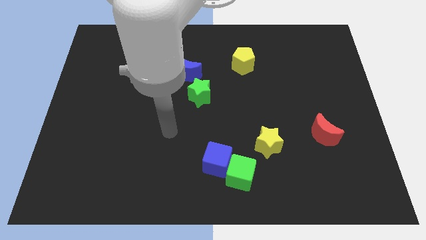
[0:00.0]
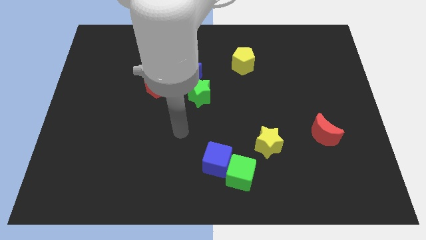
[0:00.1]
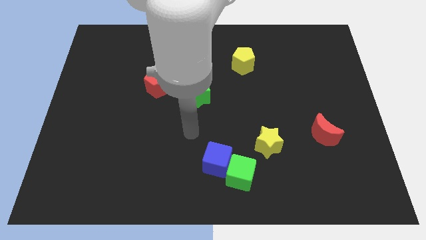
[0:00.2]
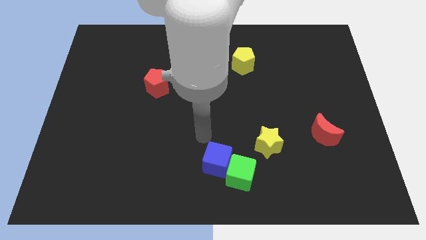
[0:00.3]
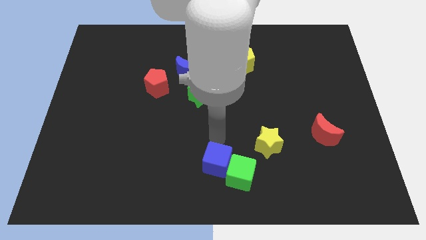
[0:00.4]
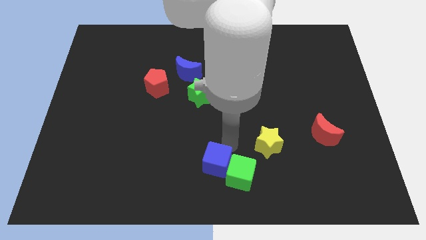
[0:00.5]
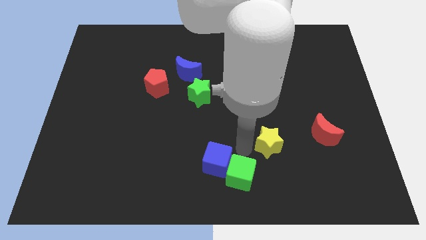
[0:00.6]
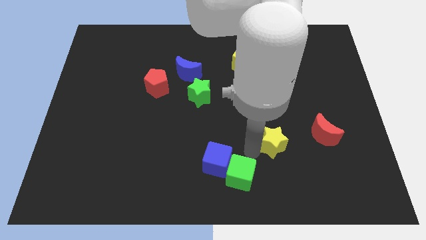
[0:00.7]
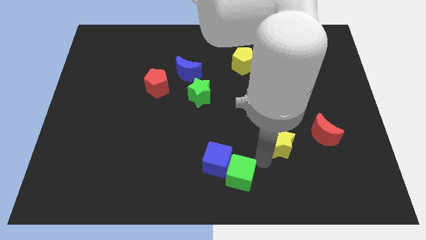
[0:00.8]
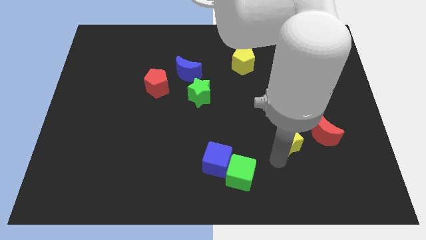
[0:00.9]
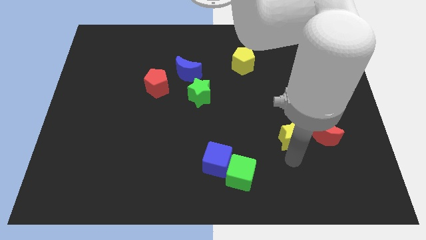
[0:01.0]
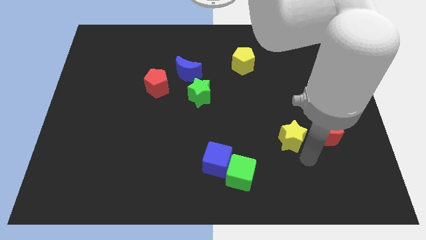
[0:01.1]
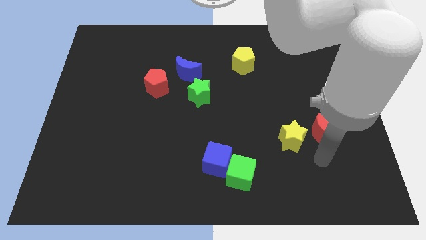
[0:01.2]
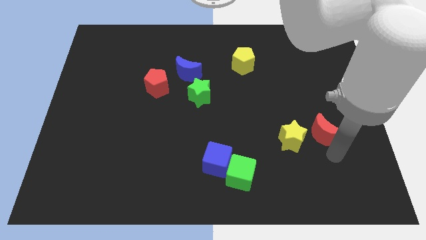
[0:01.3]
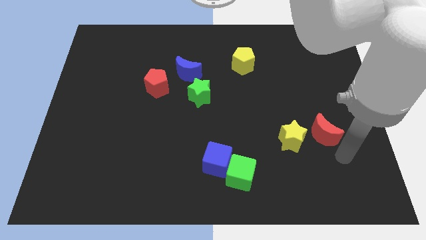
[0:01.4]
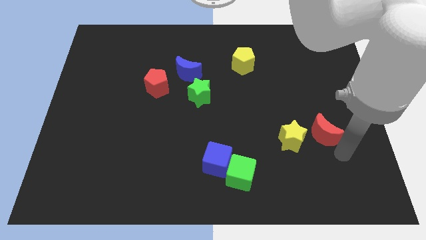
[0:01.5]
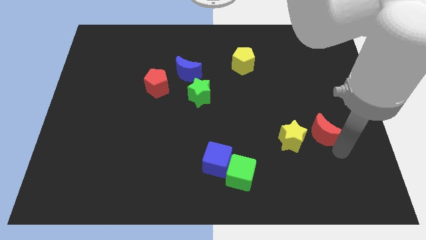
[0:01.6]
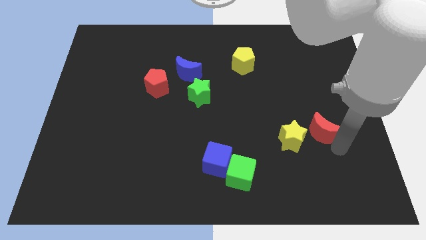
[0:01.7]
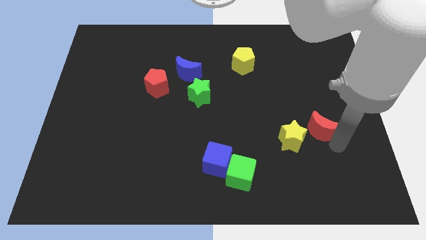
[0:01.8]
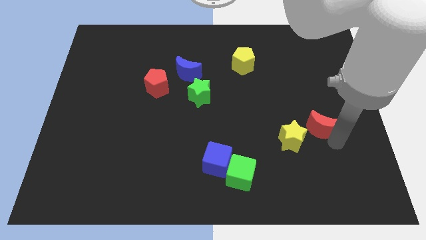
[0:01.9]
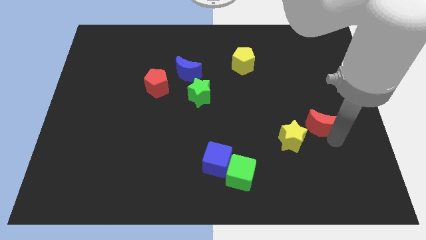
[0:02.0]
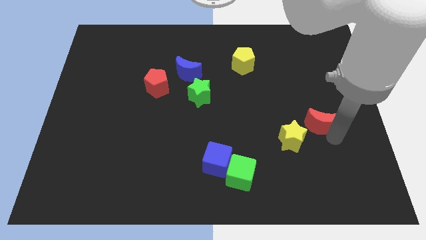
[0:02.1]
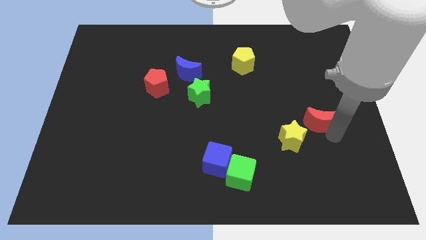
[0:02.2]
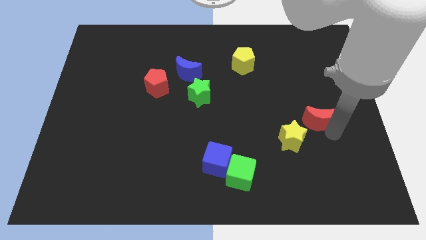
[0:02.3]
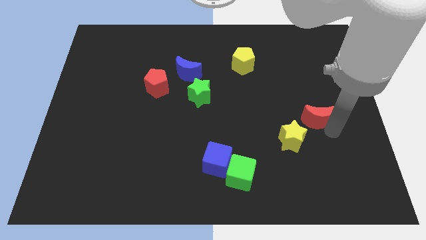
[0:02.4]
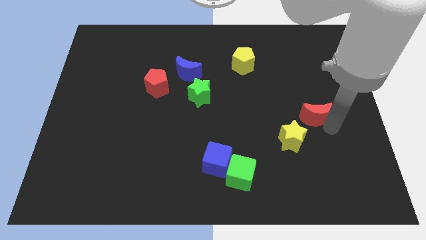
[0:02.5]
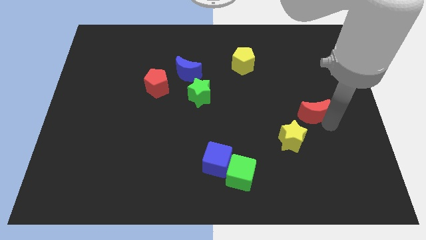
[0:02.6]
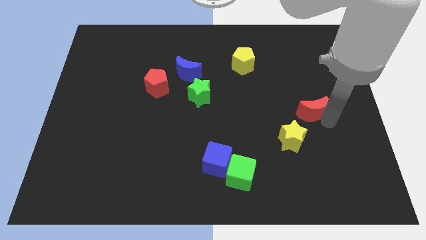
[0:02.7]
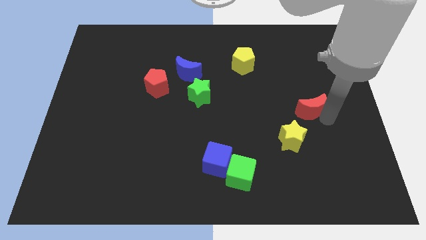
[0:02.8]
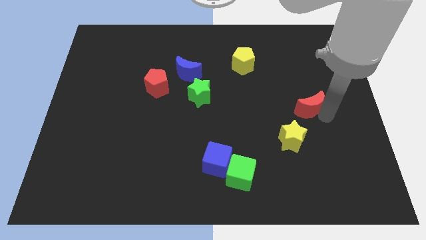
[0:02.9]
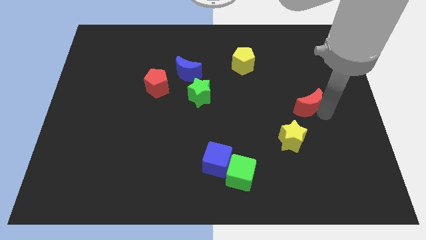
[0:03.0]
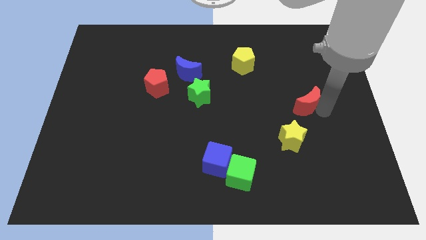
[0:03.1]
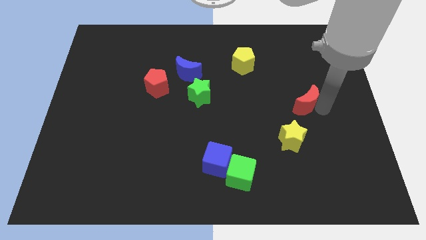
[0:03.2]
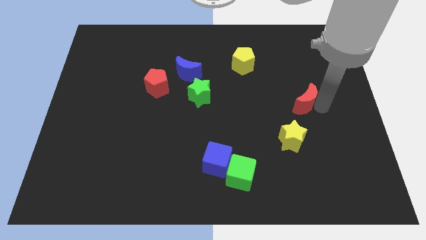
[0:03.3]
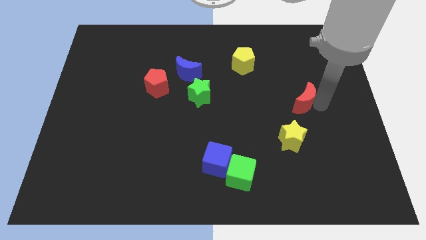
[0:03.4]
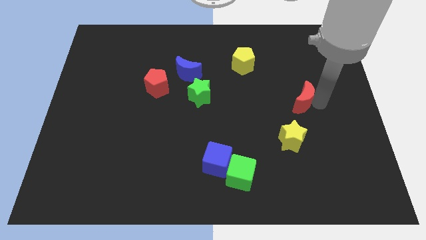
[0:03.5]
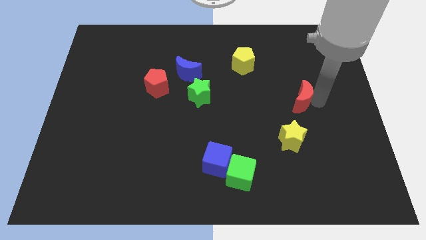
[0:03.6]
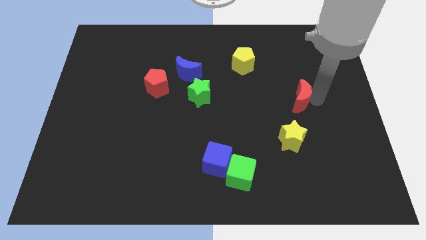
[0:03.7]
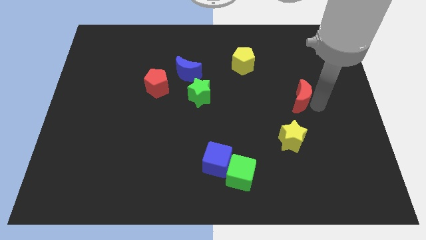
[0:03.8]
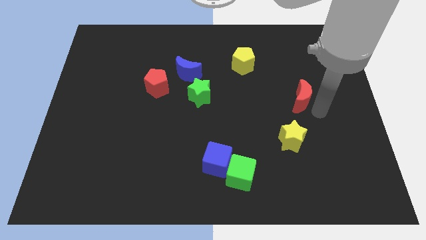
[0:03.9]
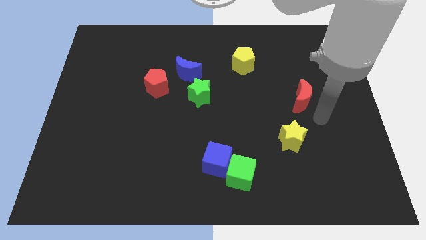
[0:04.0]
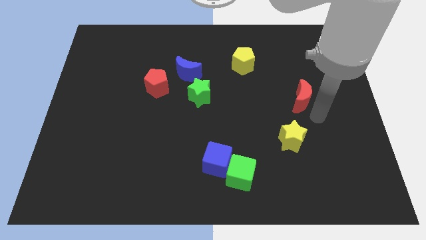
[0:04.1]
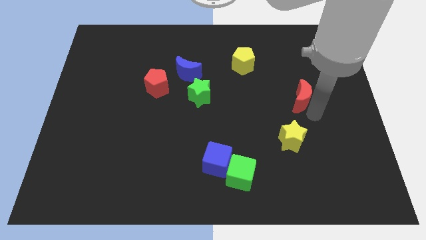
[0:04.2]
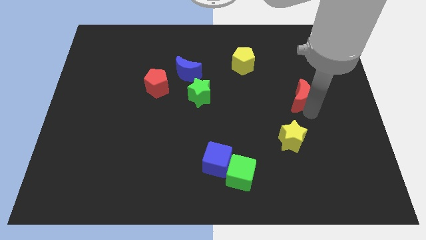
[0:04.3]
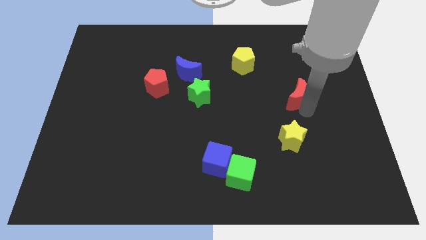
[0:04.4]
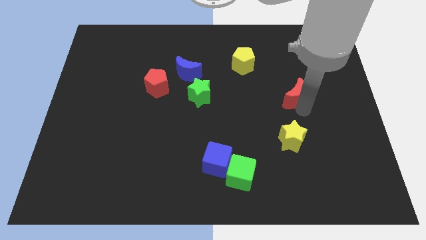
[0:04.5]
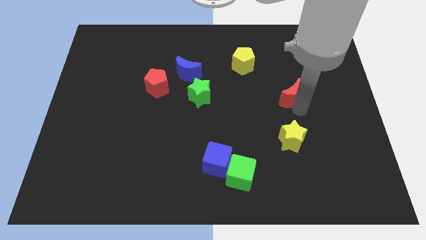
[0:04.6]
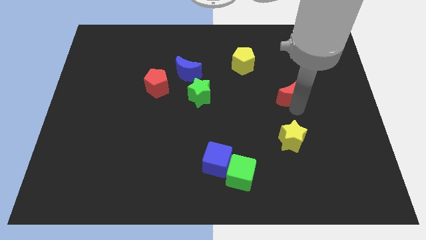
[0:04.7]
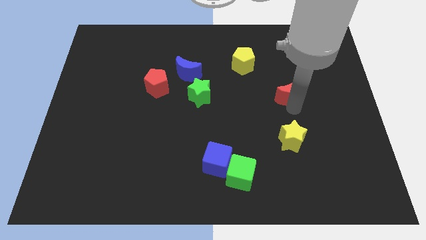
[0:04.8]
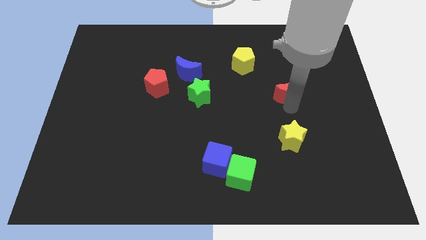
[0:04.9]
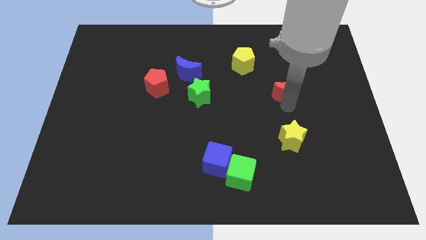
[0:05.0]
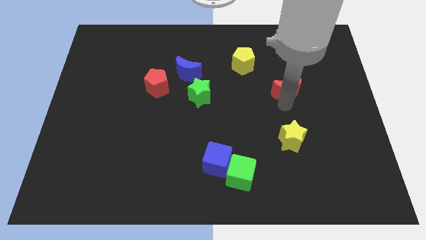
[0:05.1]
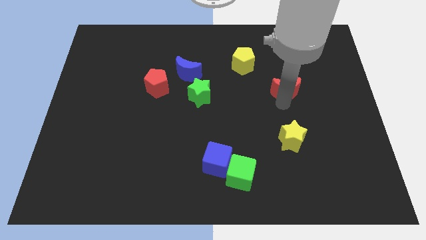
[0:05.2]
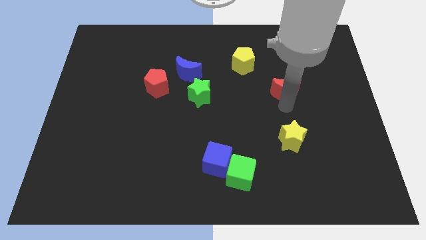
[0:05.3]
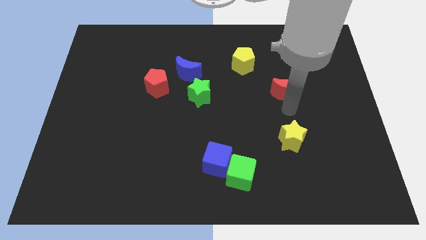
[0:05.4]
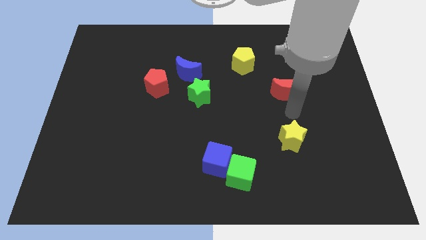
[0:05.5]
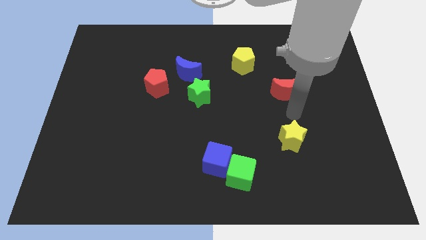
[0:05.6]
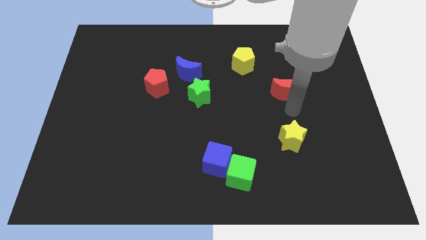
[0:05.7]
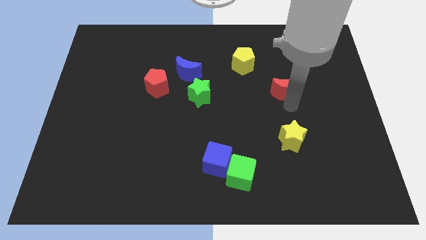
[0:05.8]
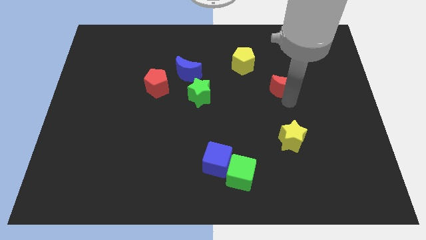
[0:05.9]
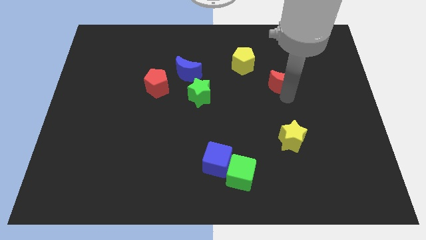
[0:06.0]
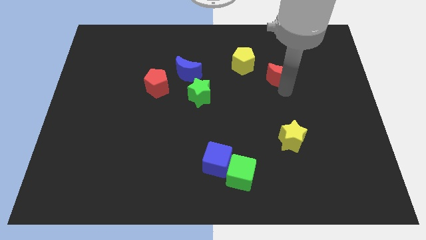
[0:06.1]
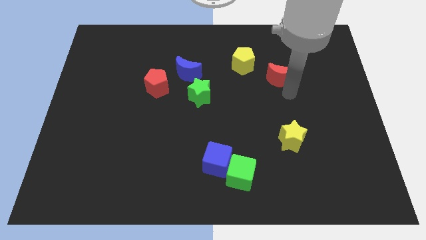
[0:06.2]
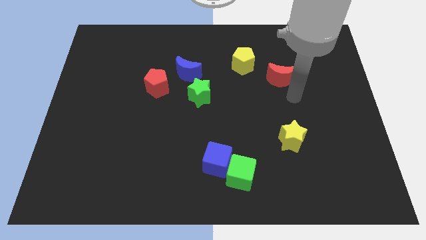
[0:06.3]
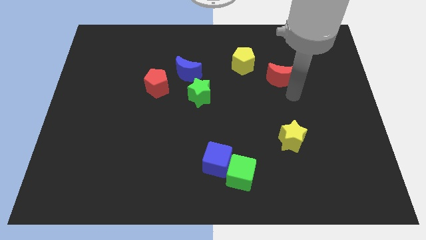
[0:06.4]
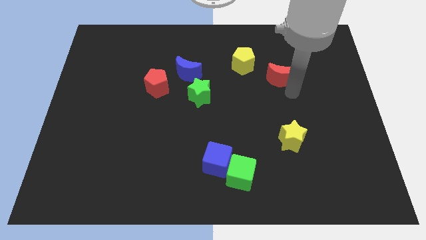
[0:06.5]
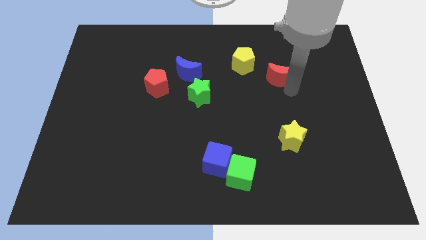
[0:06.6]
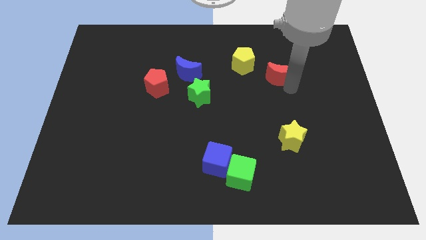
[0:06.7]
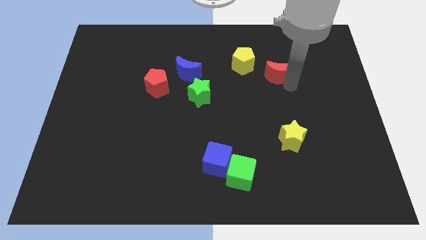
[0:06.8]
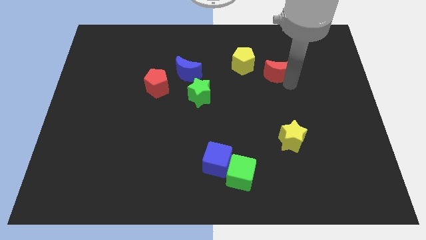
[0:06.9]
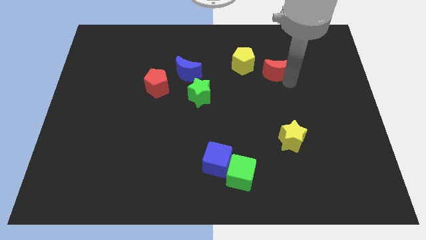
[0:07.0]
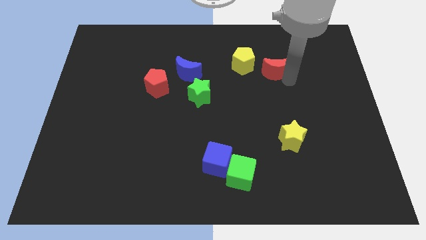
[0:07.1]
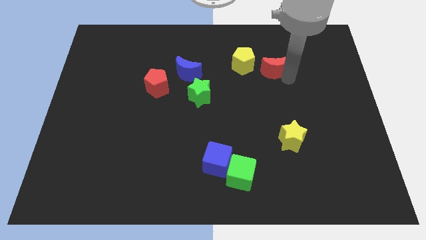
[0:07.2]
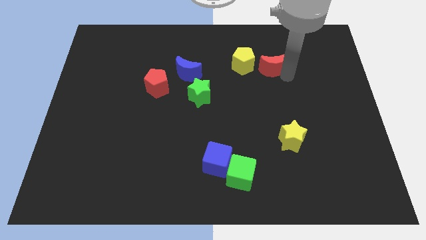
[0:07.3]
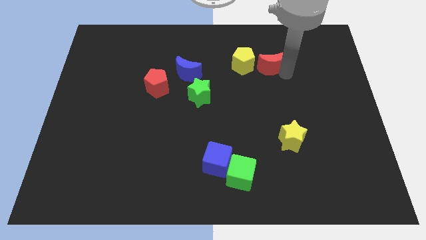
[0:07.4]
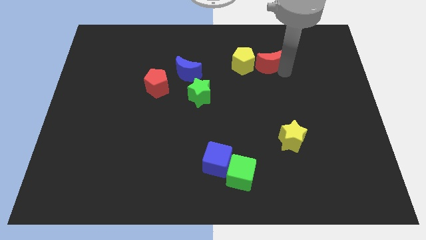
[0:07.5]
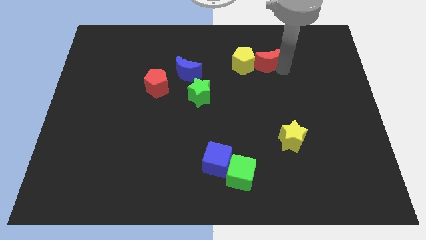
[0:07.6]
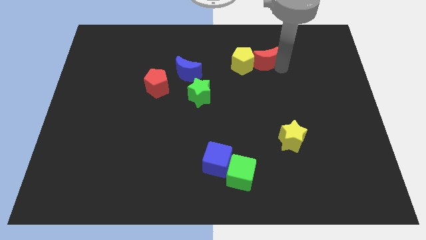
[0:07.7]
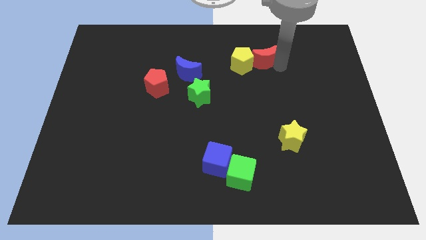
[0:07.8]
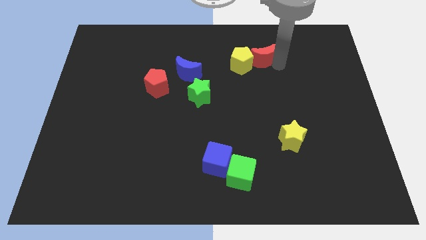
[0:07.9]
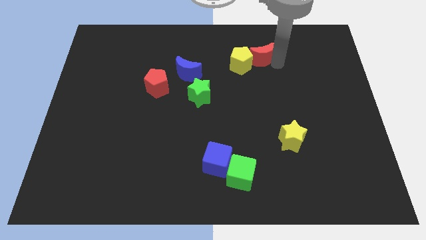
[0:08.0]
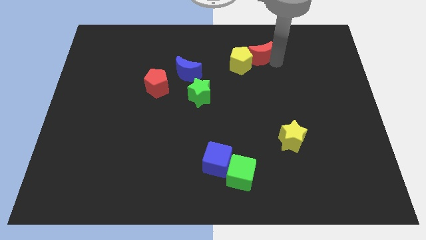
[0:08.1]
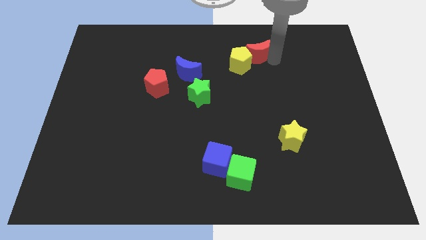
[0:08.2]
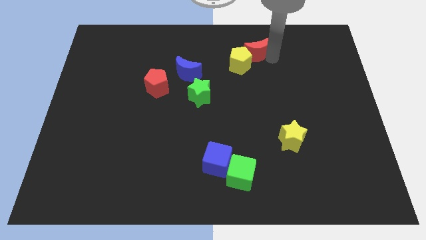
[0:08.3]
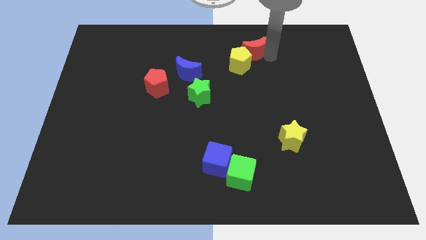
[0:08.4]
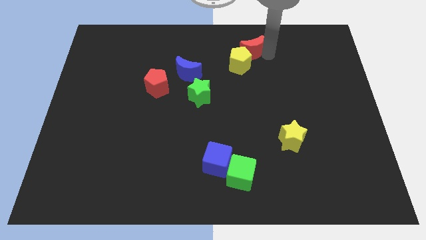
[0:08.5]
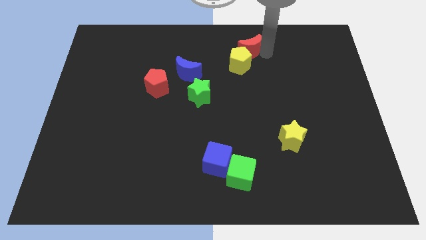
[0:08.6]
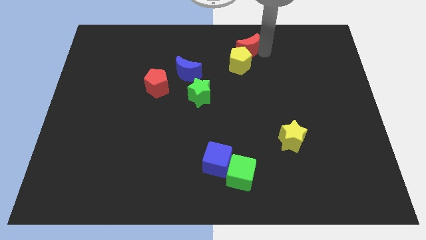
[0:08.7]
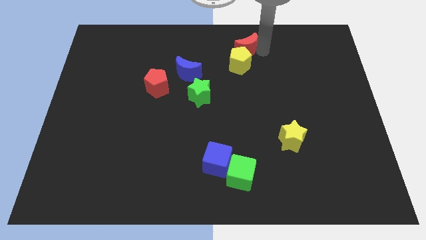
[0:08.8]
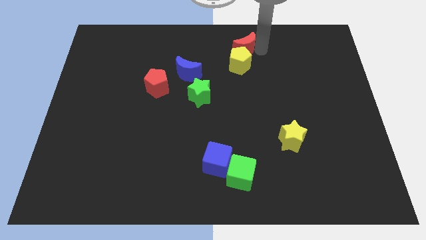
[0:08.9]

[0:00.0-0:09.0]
slide the red moon to the towards your base
